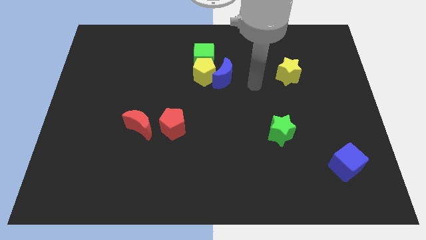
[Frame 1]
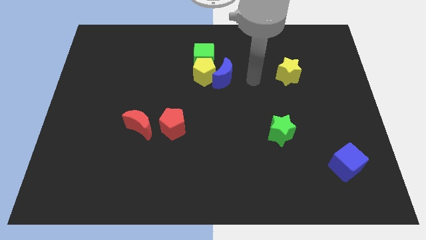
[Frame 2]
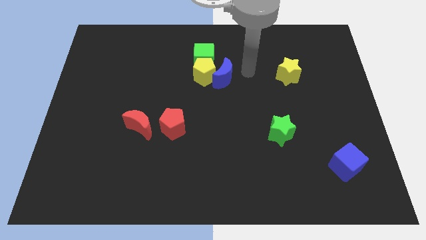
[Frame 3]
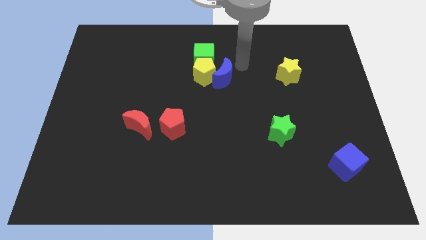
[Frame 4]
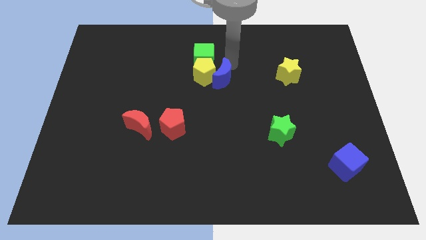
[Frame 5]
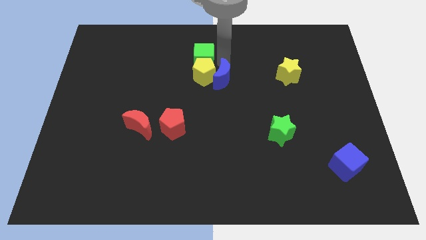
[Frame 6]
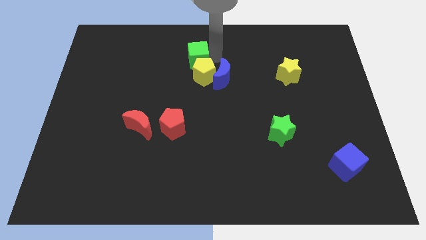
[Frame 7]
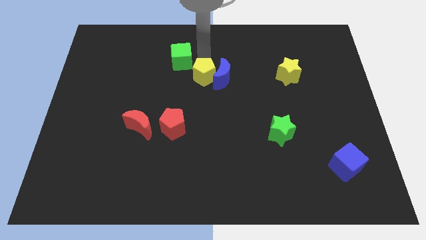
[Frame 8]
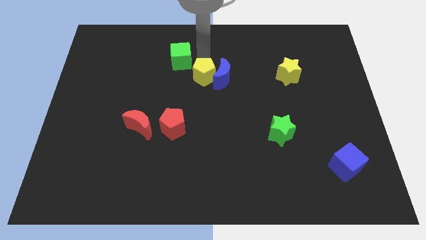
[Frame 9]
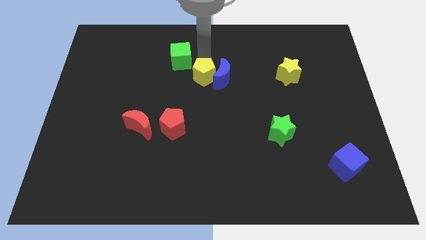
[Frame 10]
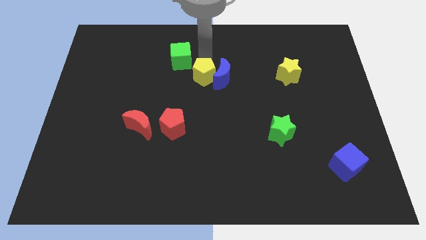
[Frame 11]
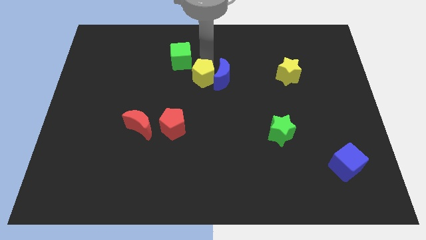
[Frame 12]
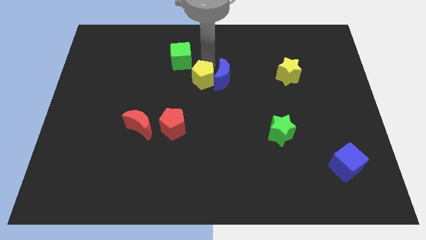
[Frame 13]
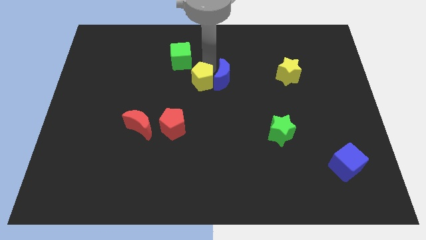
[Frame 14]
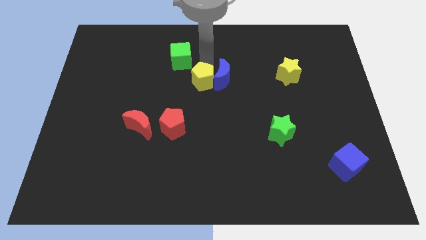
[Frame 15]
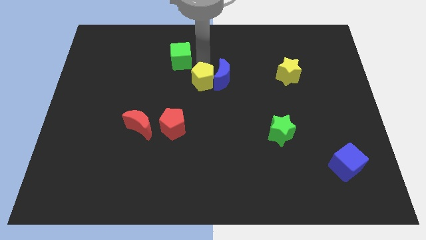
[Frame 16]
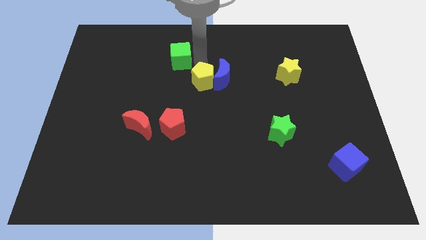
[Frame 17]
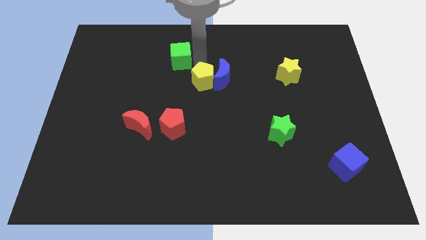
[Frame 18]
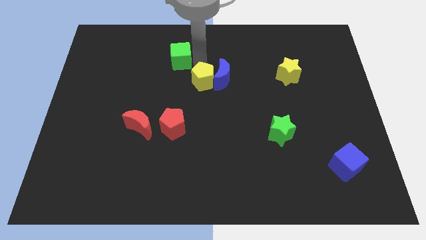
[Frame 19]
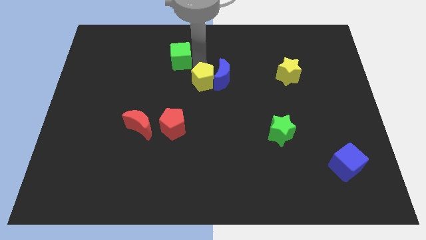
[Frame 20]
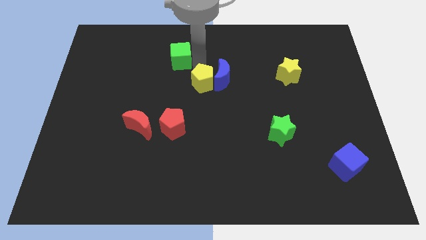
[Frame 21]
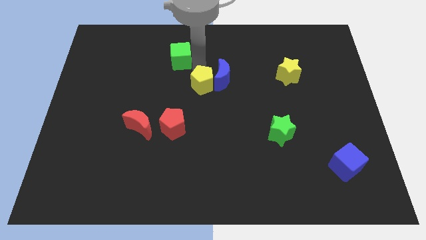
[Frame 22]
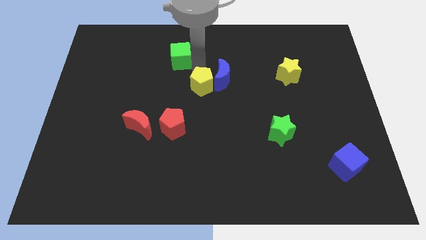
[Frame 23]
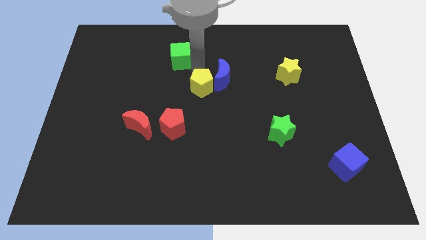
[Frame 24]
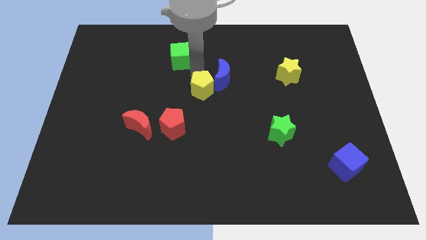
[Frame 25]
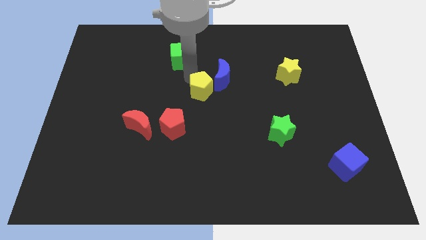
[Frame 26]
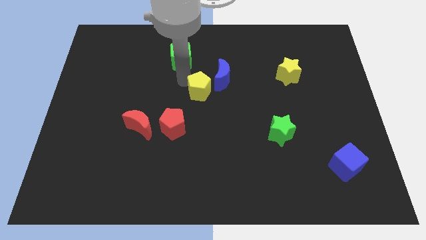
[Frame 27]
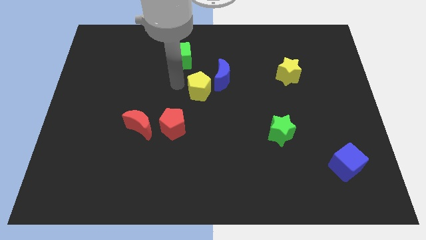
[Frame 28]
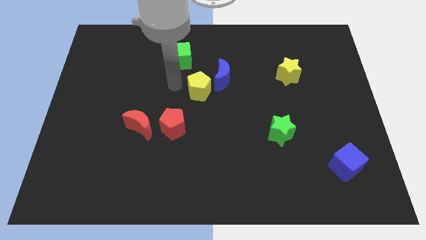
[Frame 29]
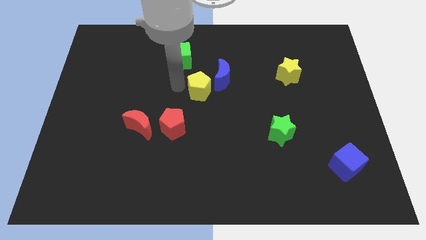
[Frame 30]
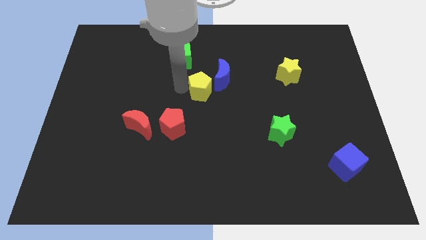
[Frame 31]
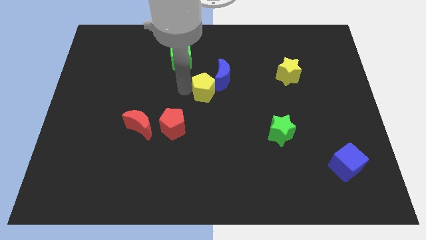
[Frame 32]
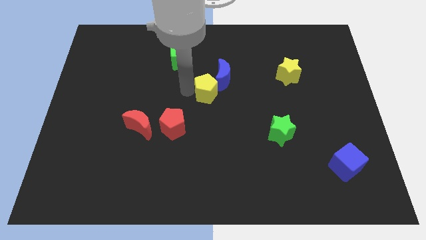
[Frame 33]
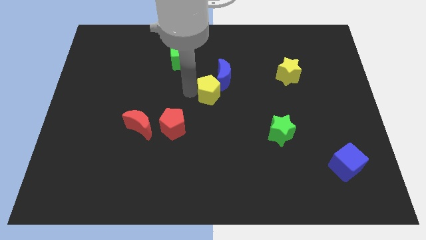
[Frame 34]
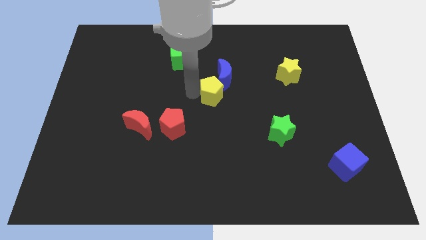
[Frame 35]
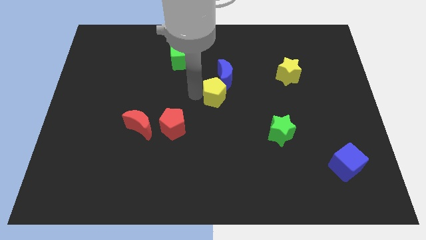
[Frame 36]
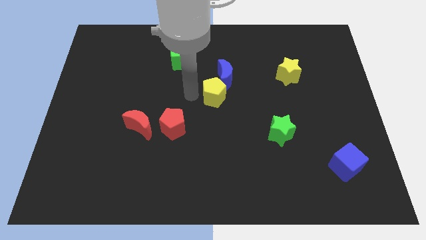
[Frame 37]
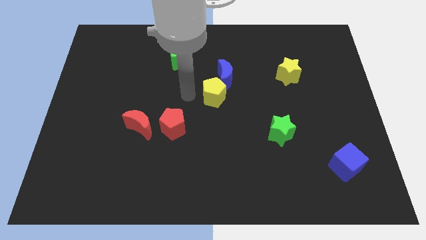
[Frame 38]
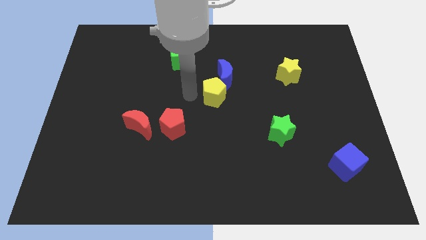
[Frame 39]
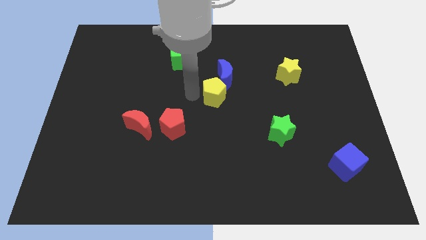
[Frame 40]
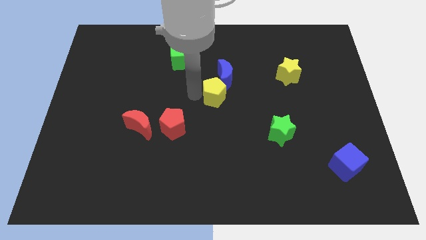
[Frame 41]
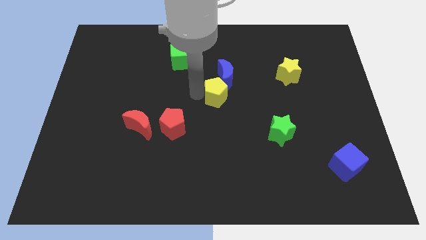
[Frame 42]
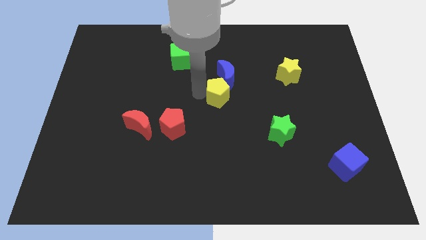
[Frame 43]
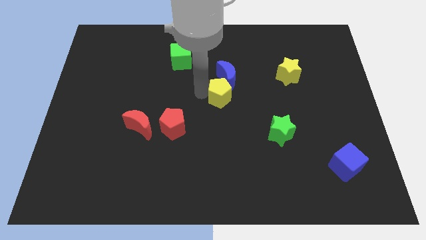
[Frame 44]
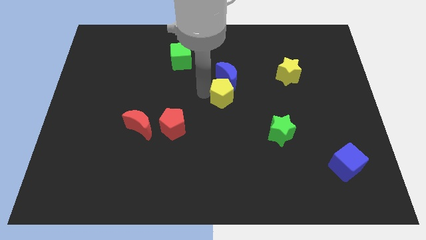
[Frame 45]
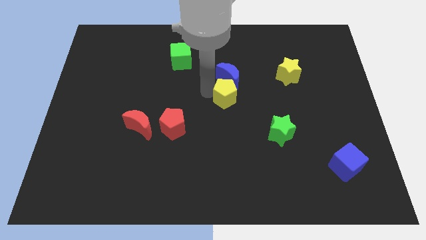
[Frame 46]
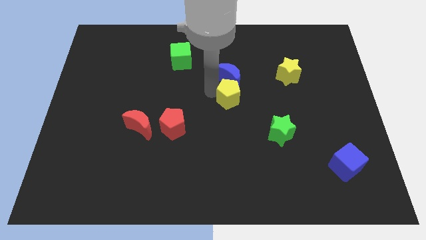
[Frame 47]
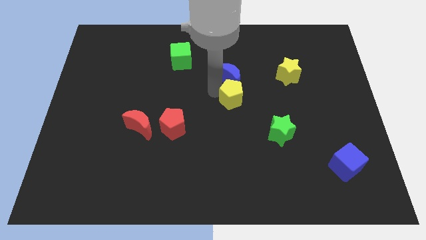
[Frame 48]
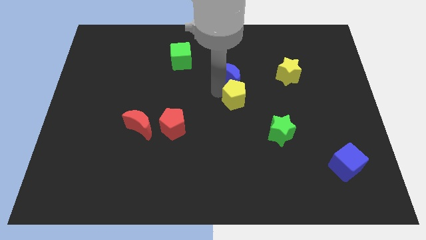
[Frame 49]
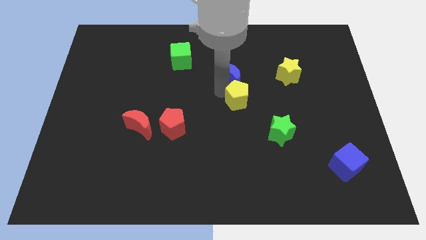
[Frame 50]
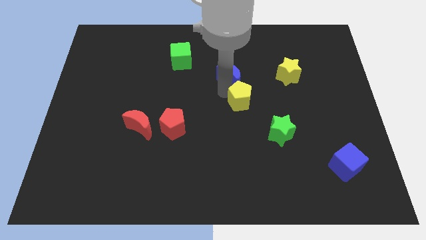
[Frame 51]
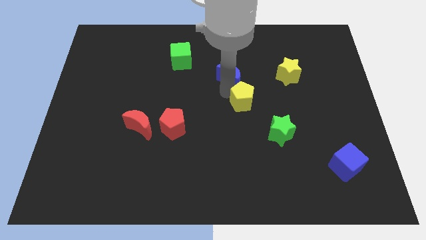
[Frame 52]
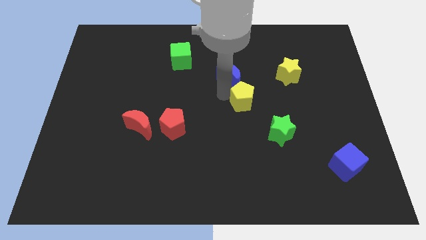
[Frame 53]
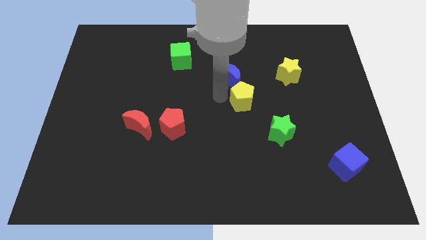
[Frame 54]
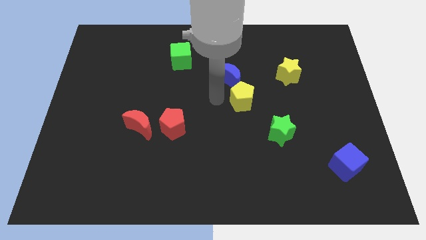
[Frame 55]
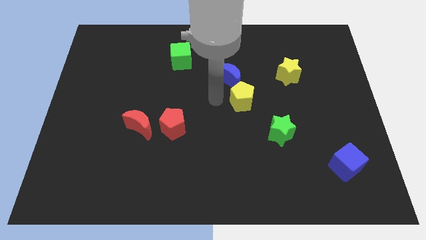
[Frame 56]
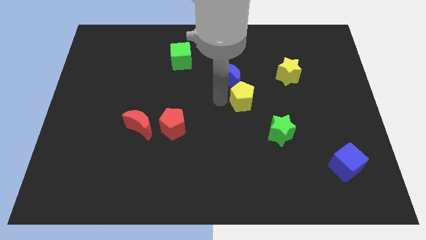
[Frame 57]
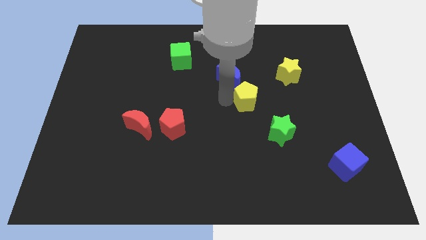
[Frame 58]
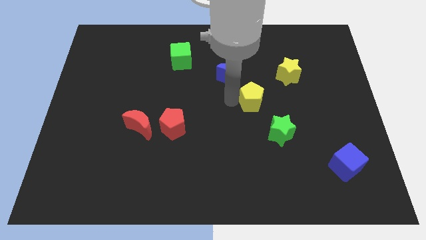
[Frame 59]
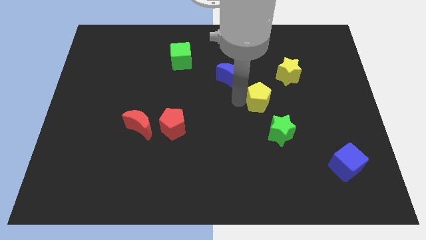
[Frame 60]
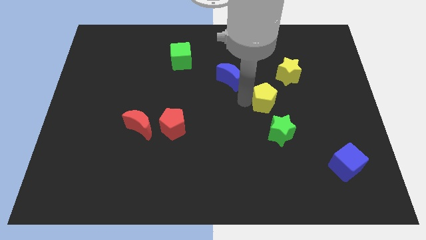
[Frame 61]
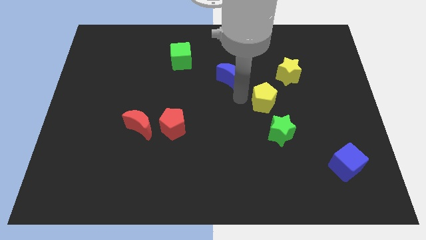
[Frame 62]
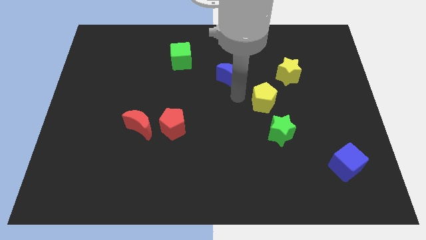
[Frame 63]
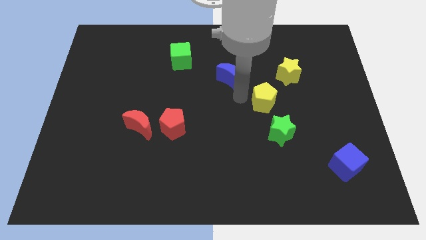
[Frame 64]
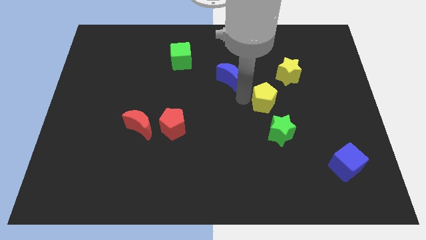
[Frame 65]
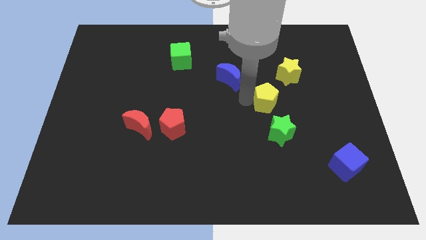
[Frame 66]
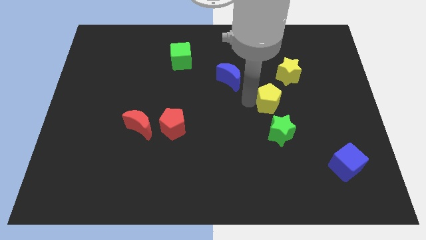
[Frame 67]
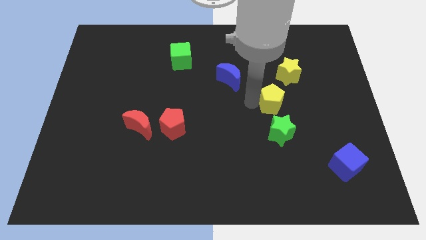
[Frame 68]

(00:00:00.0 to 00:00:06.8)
move the yellow pentagon to the bottom of the yellow star
